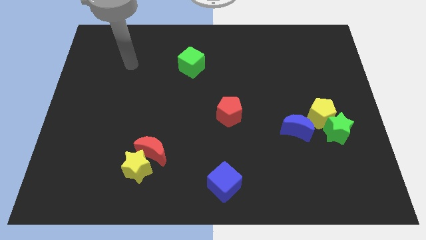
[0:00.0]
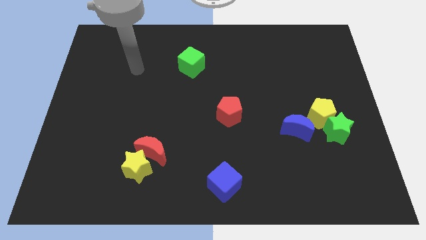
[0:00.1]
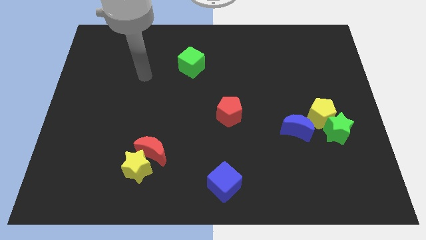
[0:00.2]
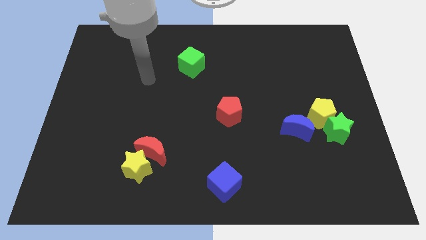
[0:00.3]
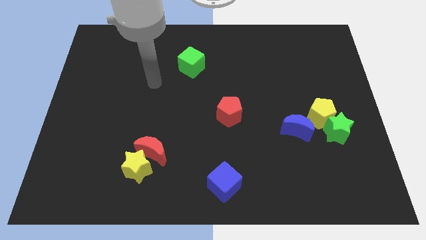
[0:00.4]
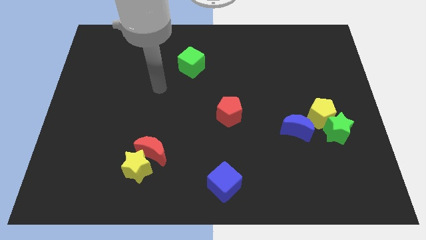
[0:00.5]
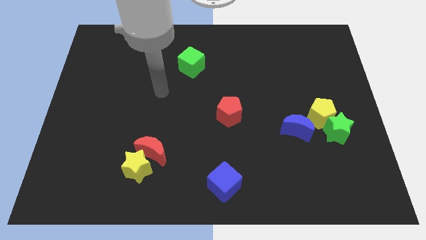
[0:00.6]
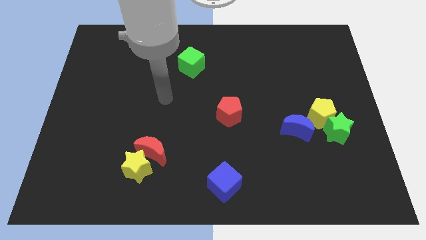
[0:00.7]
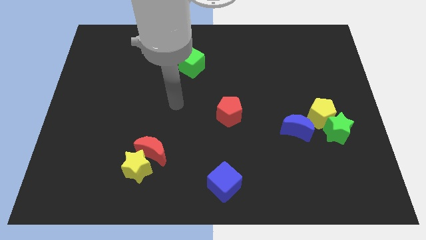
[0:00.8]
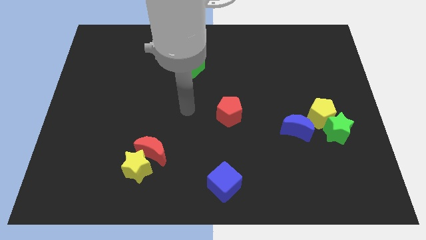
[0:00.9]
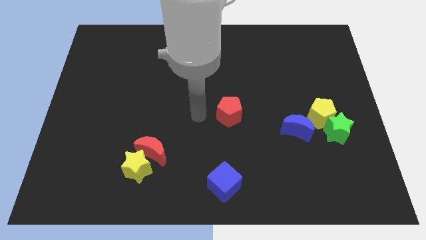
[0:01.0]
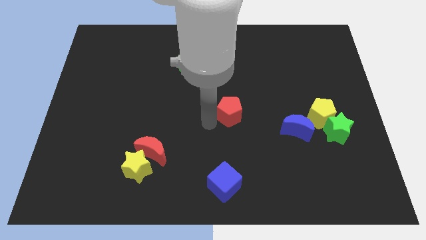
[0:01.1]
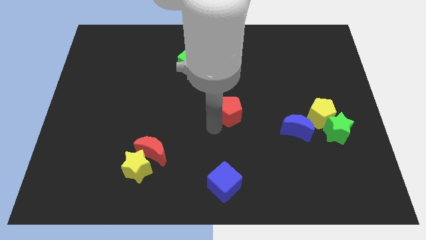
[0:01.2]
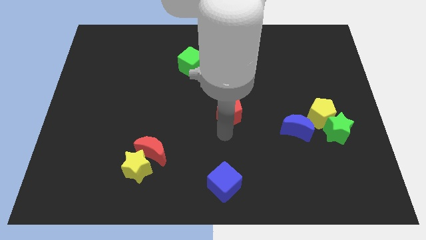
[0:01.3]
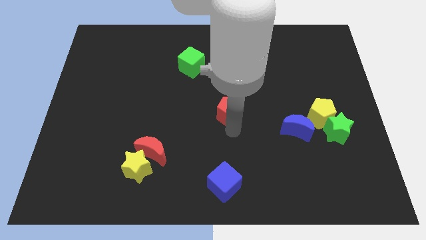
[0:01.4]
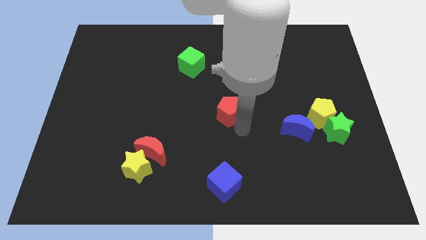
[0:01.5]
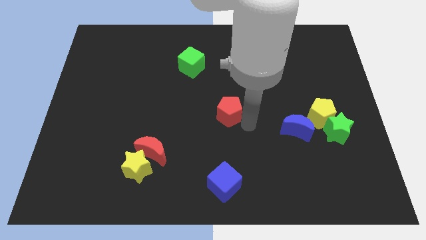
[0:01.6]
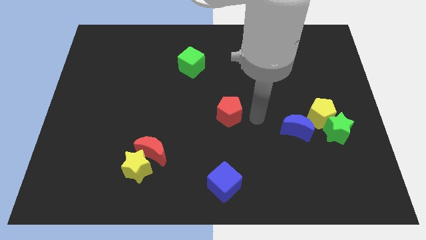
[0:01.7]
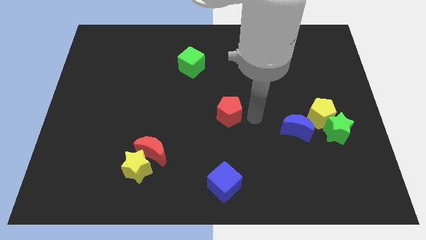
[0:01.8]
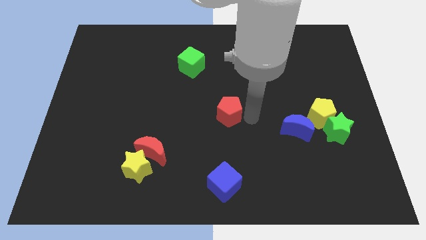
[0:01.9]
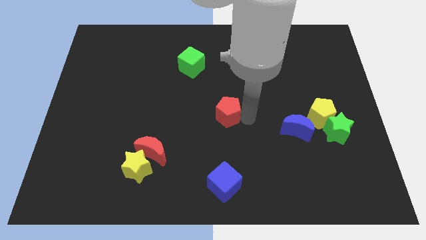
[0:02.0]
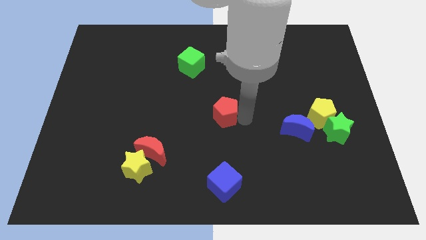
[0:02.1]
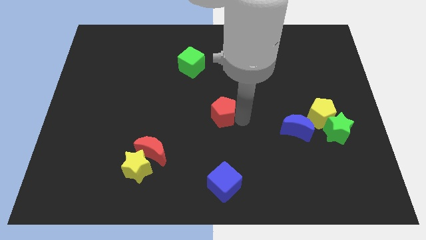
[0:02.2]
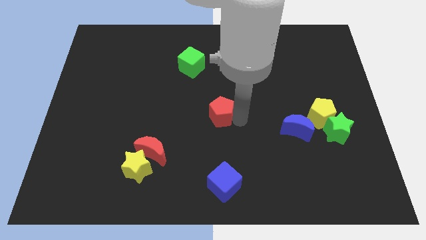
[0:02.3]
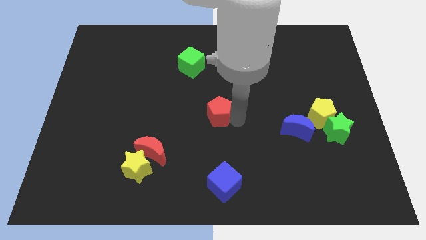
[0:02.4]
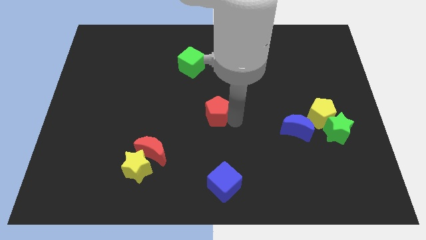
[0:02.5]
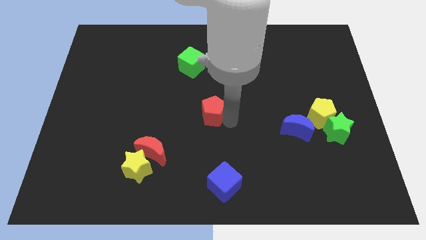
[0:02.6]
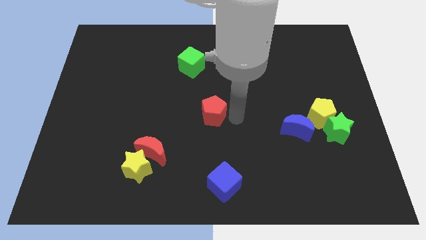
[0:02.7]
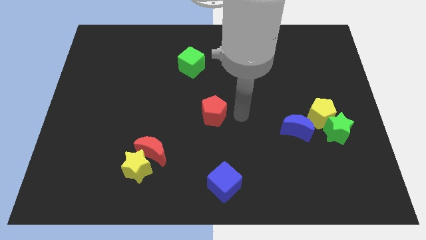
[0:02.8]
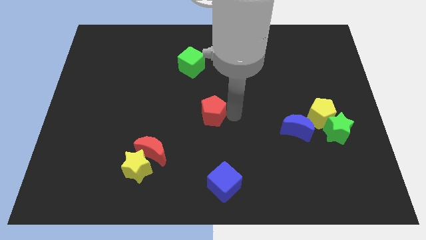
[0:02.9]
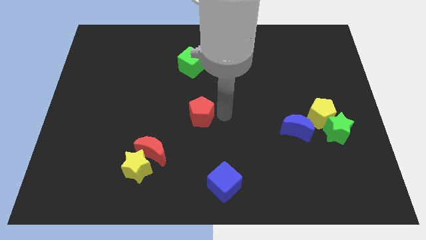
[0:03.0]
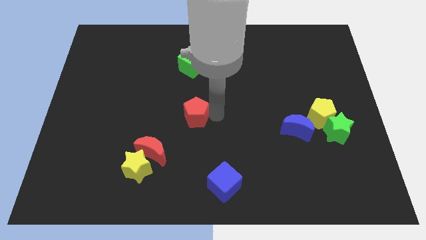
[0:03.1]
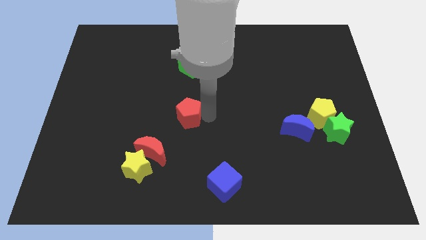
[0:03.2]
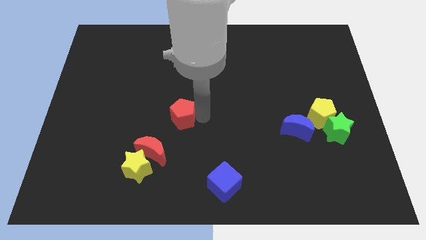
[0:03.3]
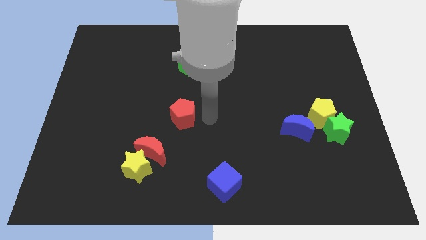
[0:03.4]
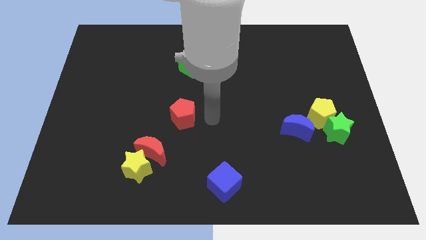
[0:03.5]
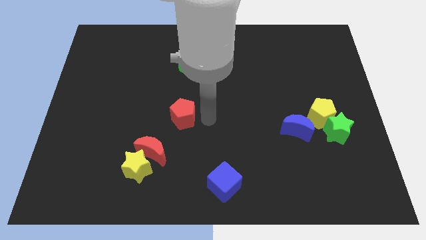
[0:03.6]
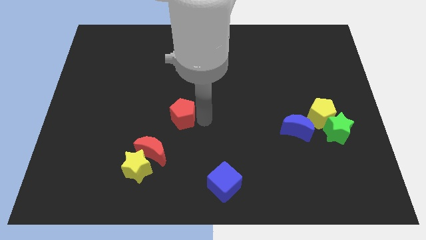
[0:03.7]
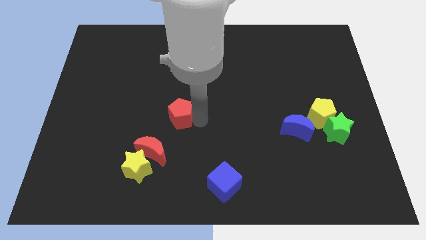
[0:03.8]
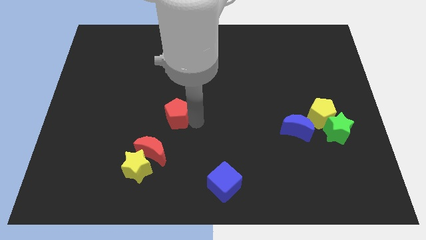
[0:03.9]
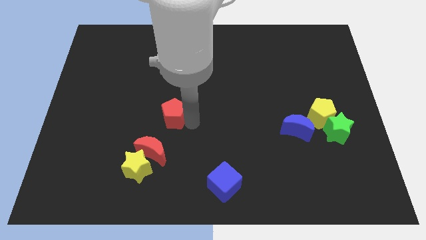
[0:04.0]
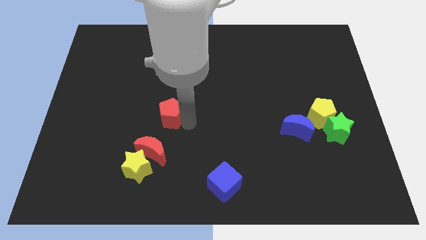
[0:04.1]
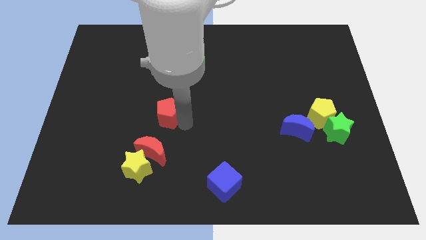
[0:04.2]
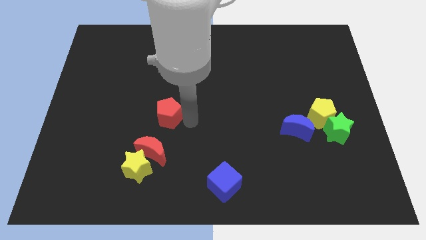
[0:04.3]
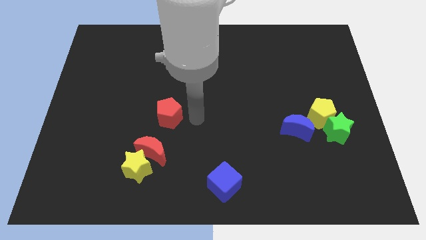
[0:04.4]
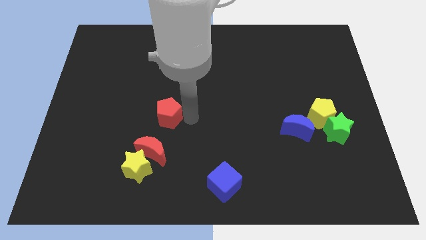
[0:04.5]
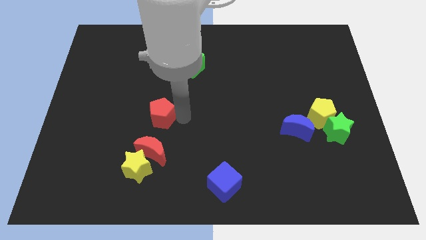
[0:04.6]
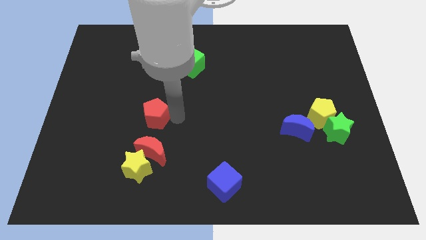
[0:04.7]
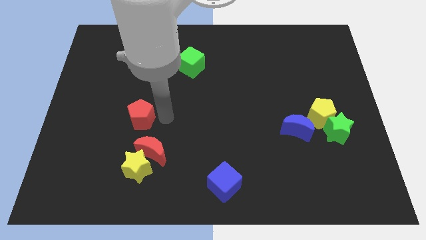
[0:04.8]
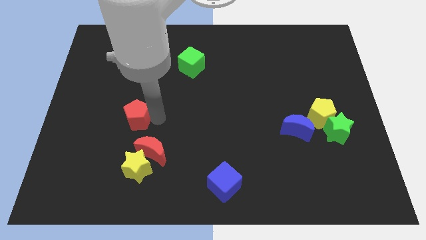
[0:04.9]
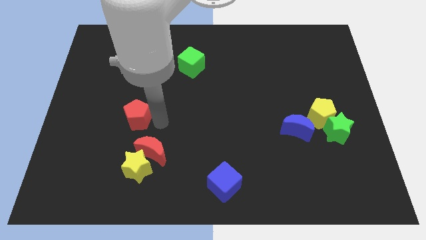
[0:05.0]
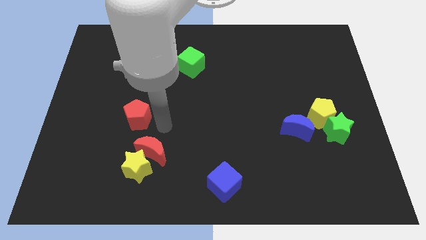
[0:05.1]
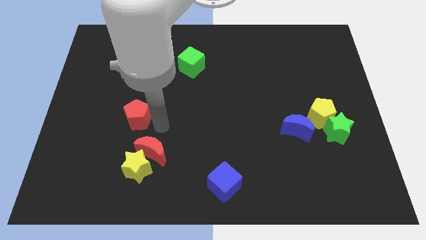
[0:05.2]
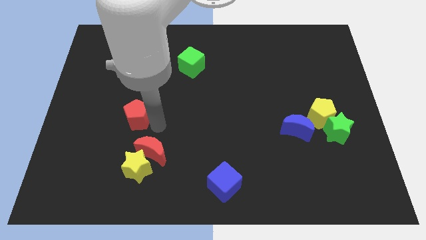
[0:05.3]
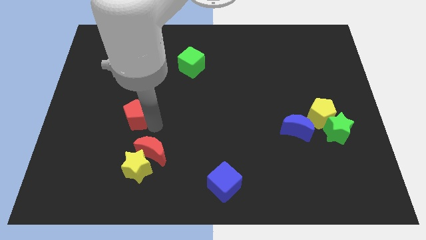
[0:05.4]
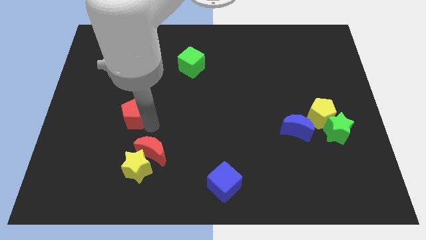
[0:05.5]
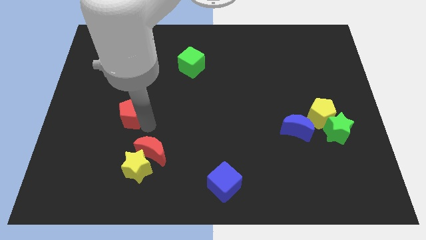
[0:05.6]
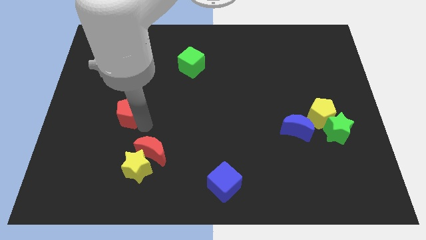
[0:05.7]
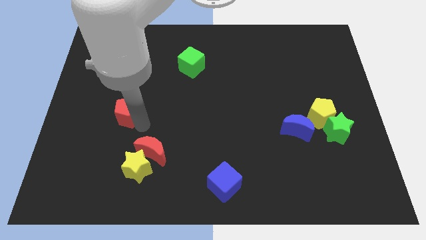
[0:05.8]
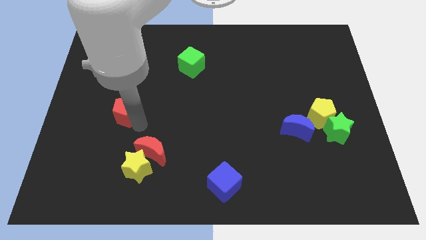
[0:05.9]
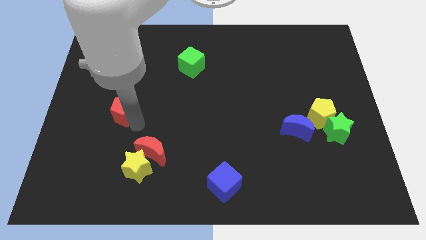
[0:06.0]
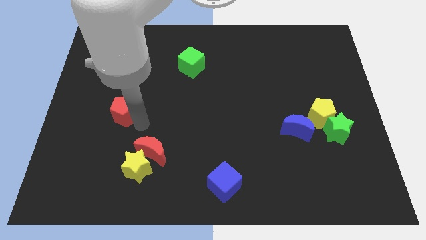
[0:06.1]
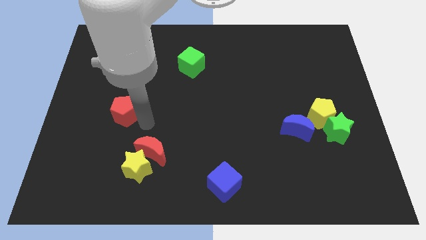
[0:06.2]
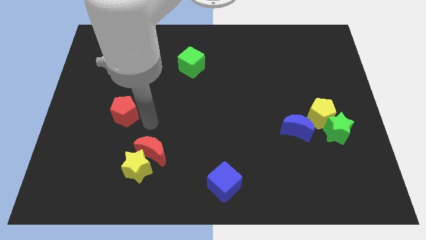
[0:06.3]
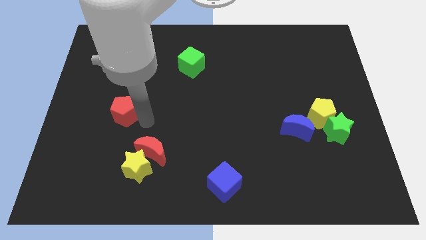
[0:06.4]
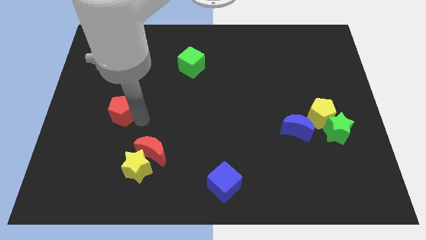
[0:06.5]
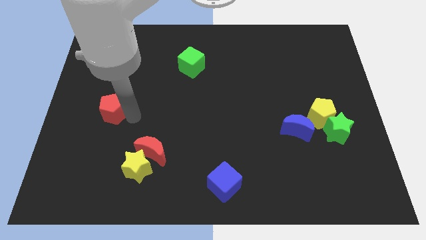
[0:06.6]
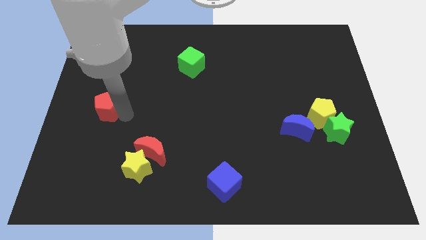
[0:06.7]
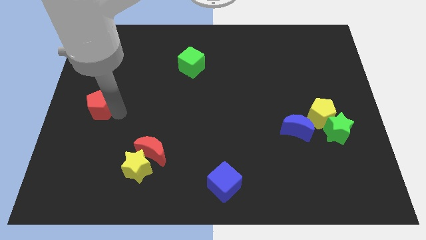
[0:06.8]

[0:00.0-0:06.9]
slide the red pentagon to the left side of the board
